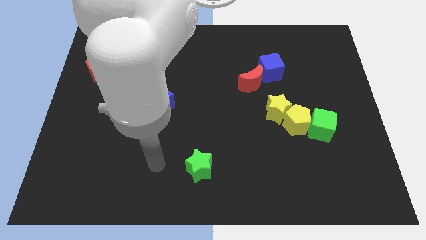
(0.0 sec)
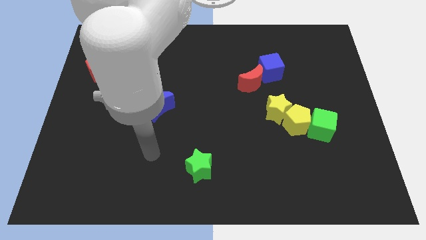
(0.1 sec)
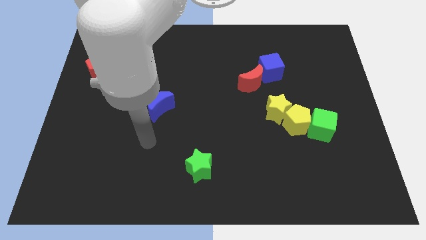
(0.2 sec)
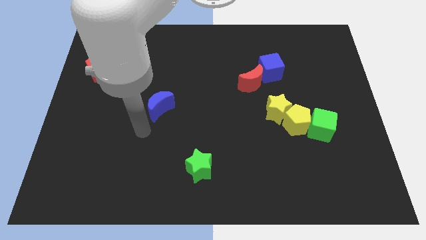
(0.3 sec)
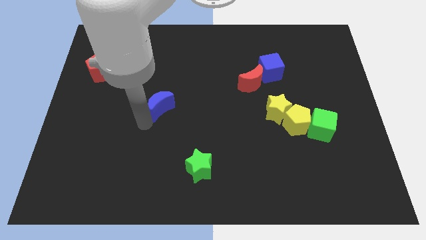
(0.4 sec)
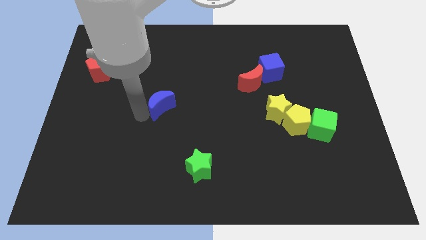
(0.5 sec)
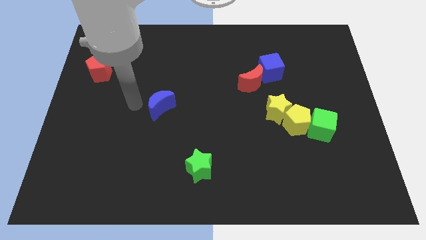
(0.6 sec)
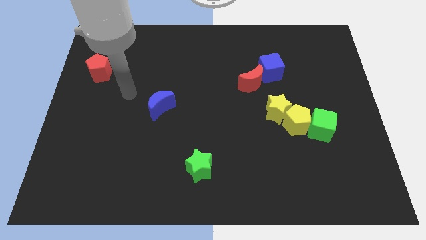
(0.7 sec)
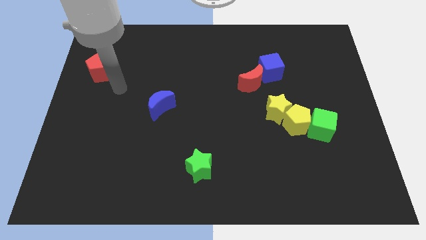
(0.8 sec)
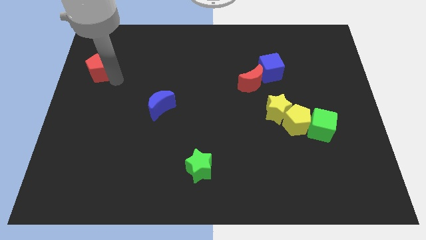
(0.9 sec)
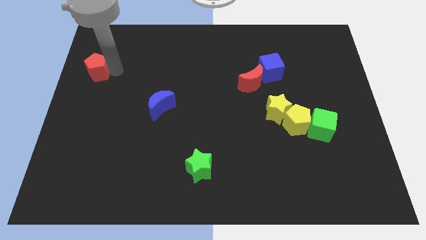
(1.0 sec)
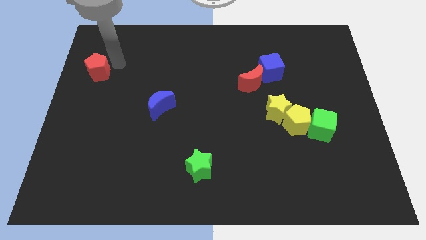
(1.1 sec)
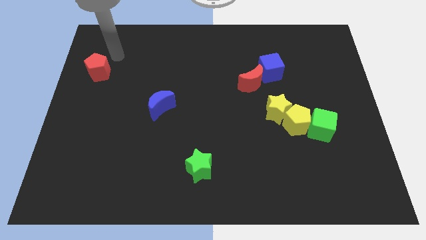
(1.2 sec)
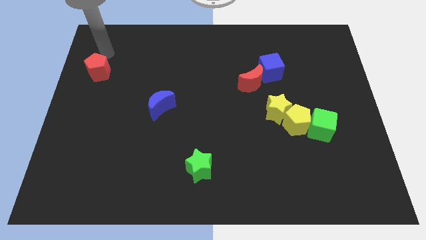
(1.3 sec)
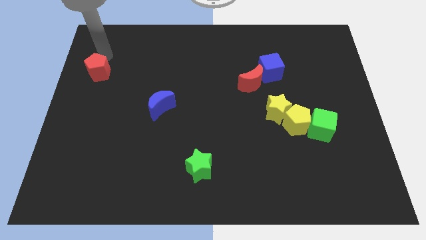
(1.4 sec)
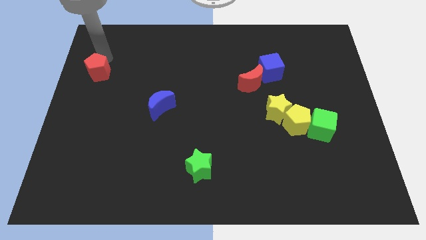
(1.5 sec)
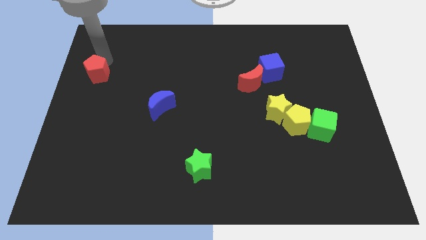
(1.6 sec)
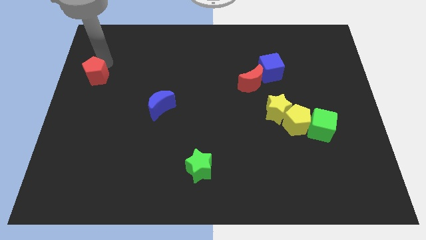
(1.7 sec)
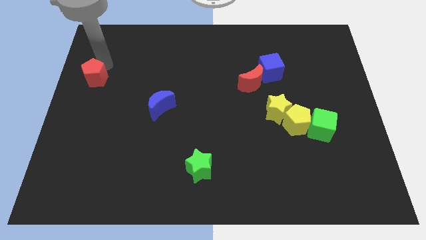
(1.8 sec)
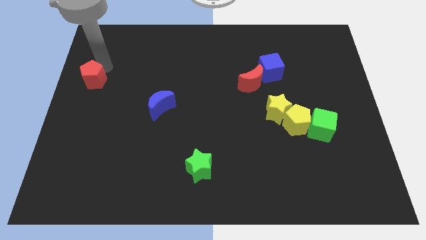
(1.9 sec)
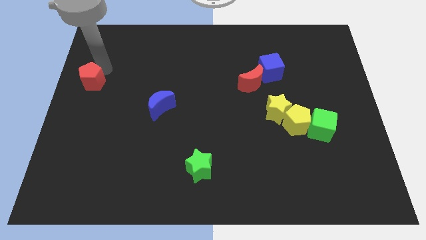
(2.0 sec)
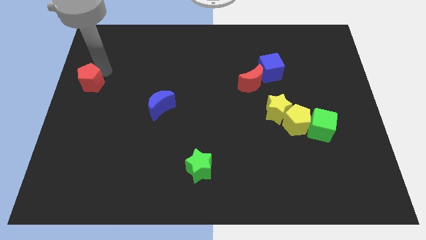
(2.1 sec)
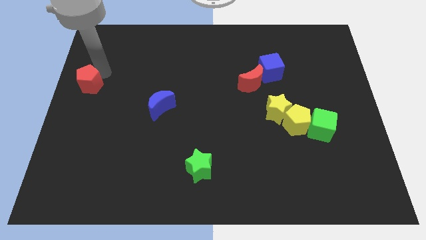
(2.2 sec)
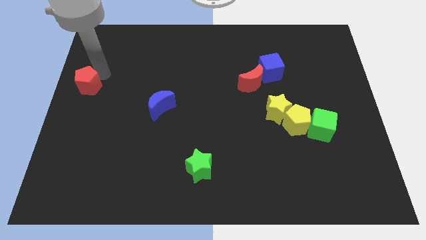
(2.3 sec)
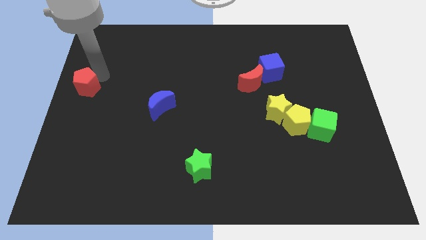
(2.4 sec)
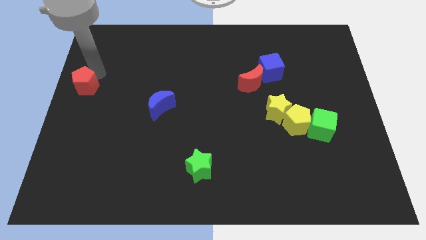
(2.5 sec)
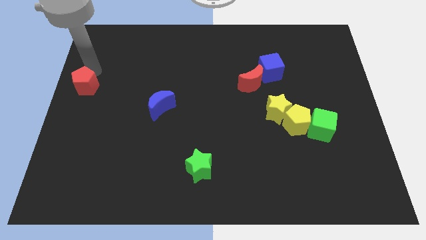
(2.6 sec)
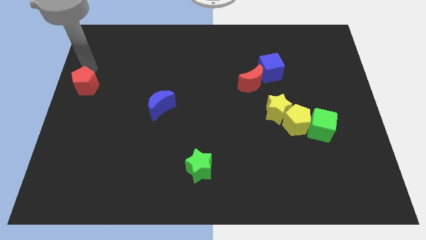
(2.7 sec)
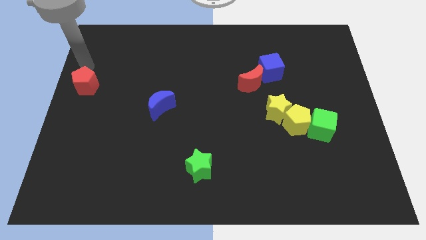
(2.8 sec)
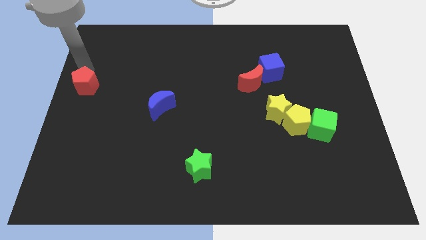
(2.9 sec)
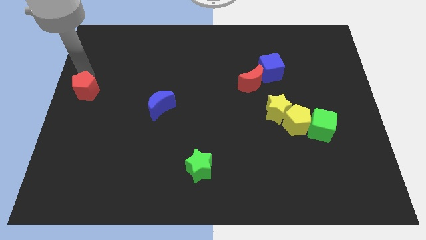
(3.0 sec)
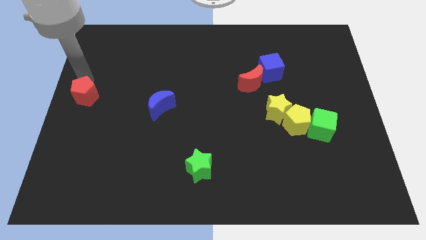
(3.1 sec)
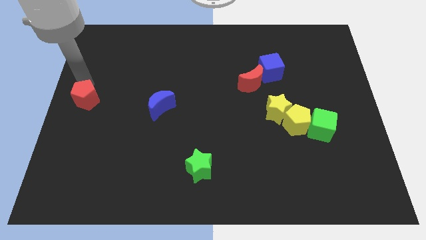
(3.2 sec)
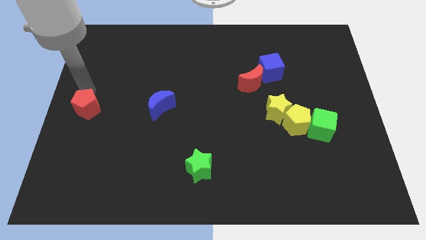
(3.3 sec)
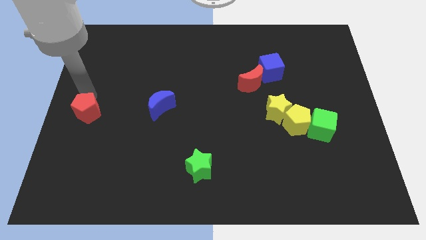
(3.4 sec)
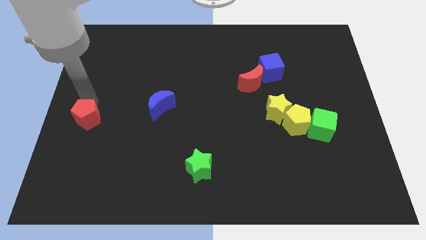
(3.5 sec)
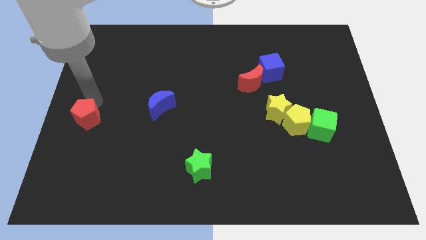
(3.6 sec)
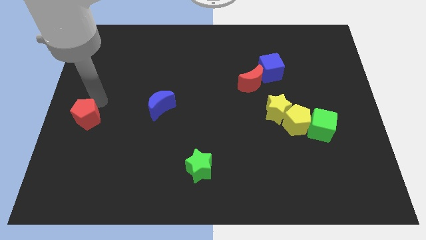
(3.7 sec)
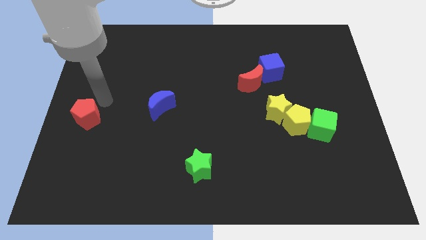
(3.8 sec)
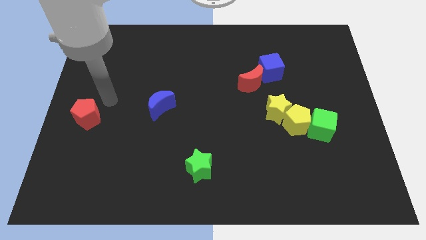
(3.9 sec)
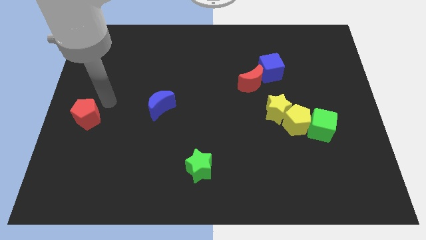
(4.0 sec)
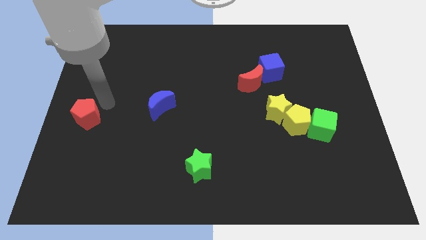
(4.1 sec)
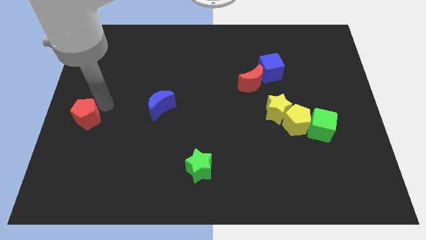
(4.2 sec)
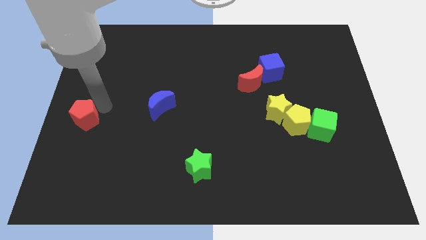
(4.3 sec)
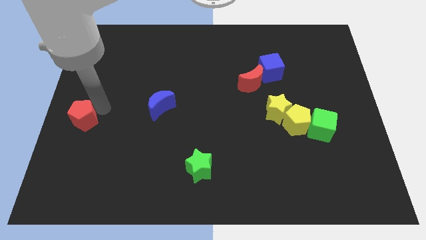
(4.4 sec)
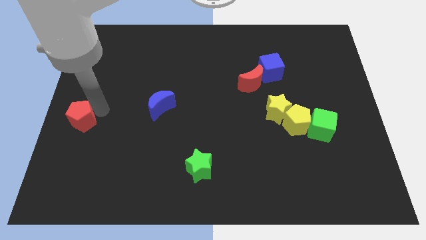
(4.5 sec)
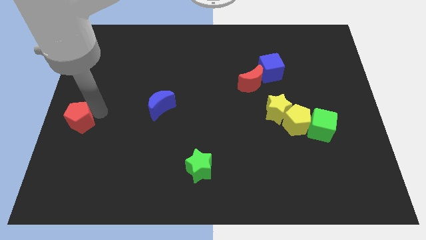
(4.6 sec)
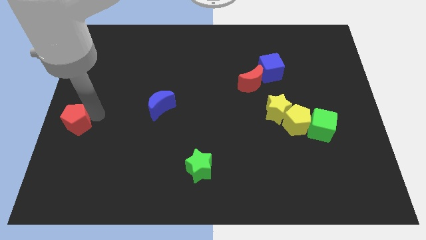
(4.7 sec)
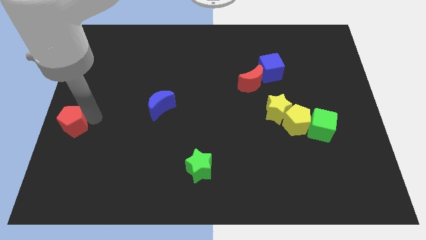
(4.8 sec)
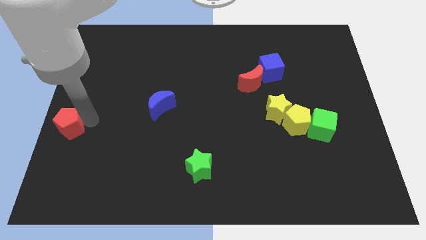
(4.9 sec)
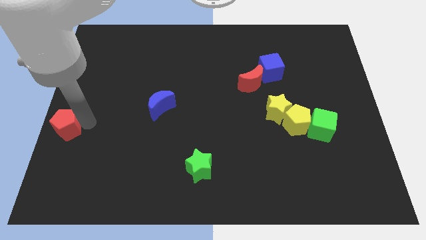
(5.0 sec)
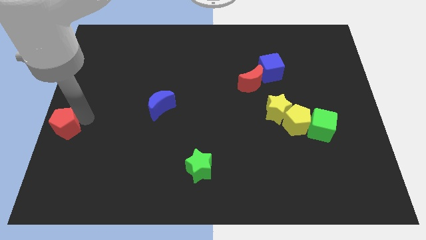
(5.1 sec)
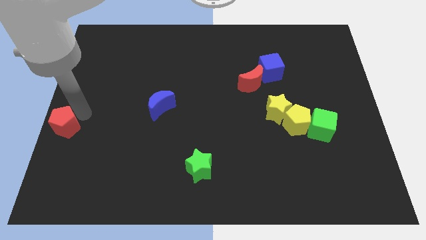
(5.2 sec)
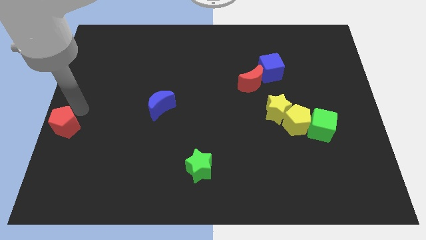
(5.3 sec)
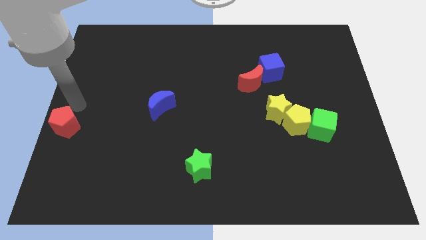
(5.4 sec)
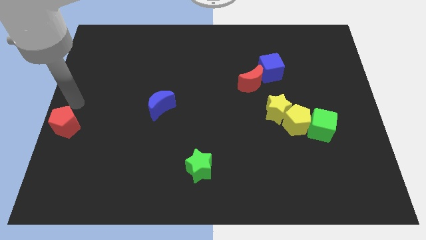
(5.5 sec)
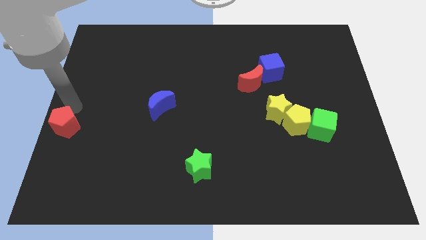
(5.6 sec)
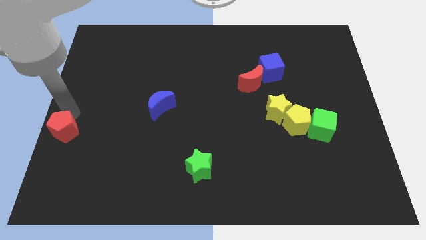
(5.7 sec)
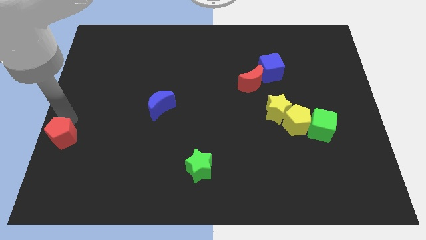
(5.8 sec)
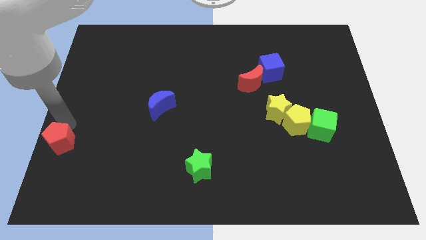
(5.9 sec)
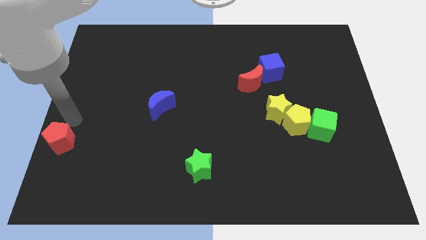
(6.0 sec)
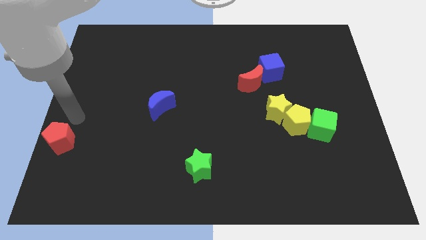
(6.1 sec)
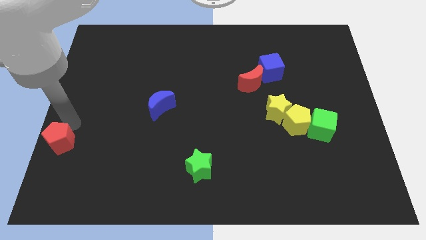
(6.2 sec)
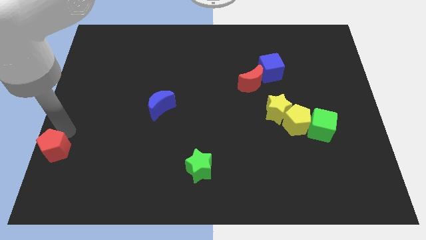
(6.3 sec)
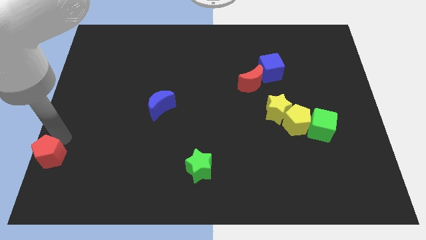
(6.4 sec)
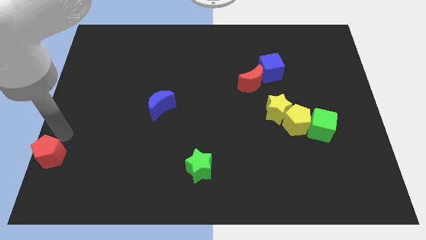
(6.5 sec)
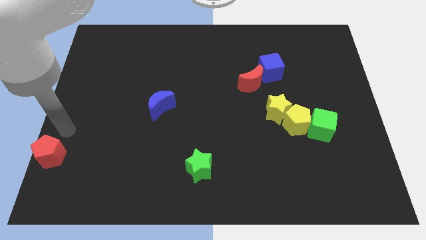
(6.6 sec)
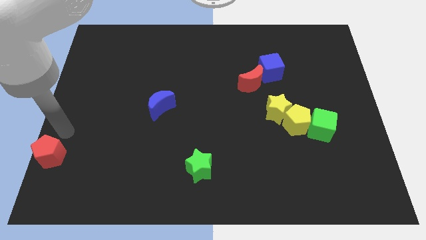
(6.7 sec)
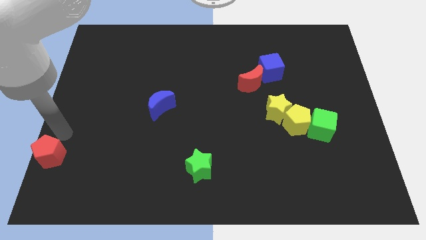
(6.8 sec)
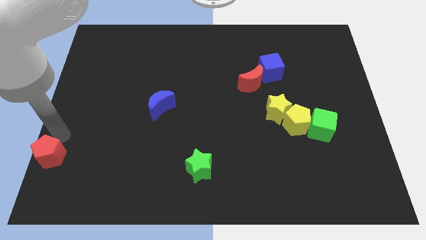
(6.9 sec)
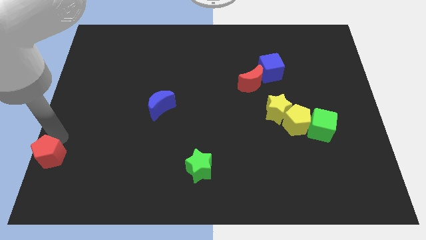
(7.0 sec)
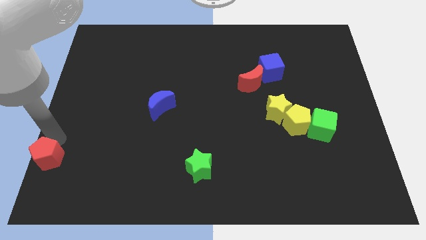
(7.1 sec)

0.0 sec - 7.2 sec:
push the red pentagon to the bottom left corner

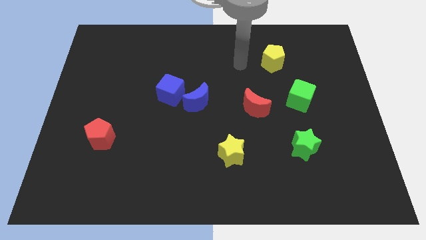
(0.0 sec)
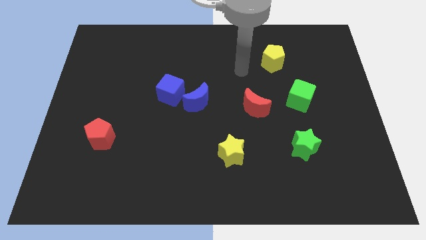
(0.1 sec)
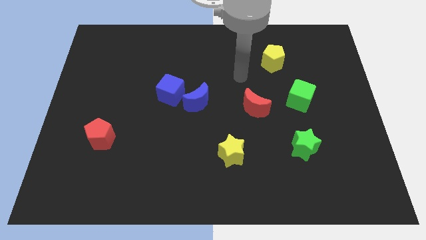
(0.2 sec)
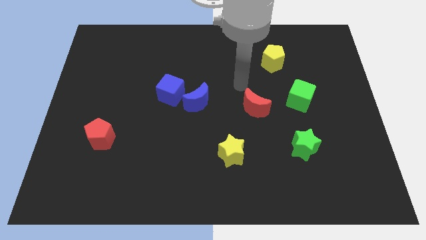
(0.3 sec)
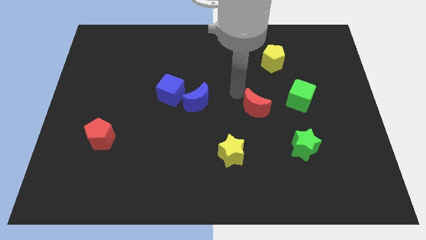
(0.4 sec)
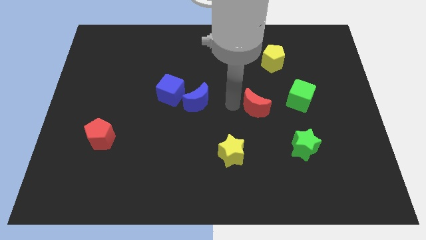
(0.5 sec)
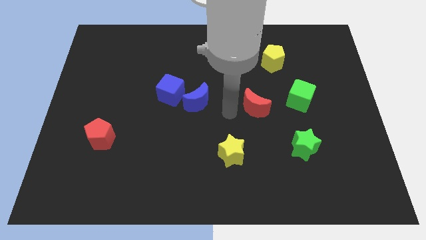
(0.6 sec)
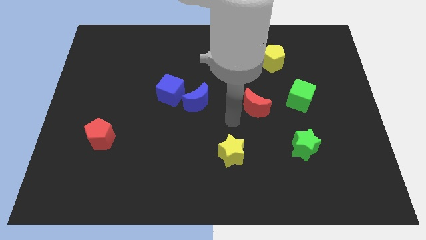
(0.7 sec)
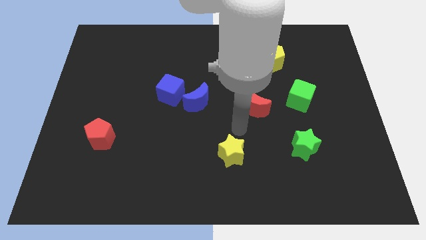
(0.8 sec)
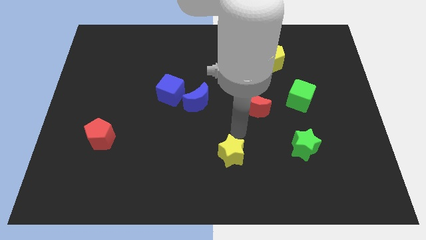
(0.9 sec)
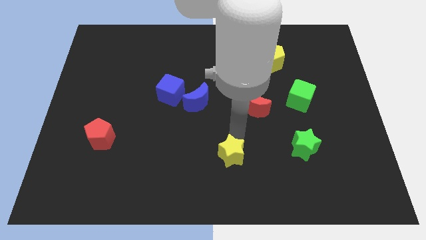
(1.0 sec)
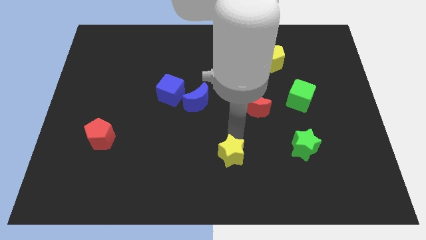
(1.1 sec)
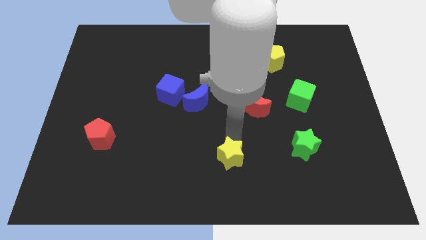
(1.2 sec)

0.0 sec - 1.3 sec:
slide the yellow star to the bottom
